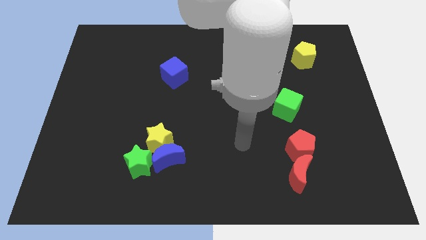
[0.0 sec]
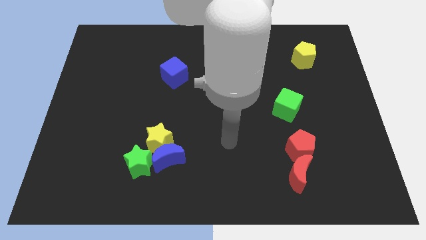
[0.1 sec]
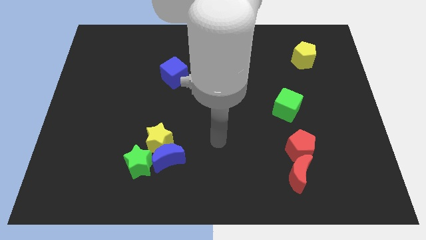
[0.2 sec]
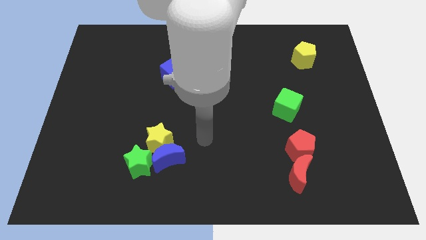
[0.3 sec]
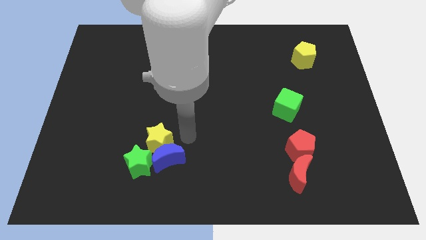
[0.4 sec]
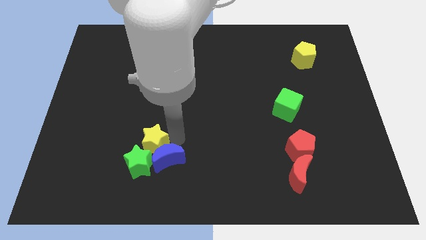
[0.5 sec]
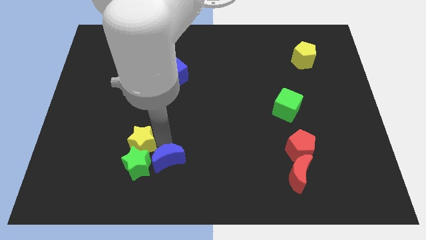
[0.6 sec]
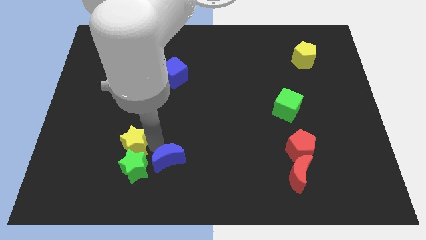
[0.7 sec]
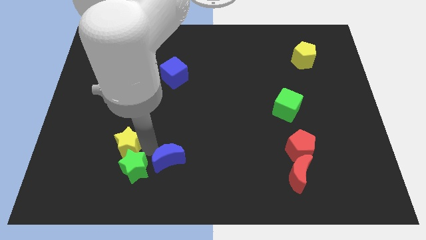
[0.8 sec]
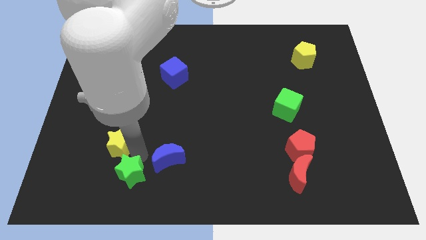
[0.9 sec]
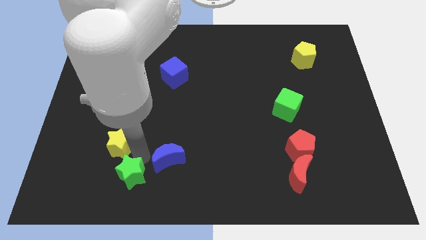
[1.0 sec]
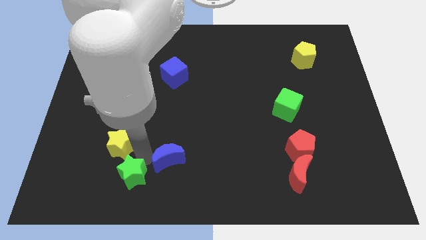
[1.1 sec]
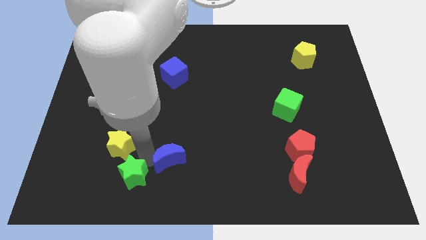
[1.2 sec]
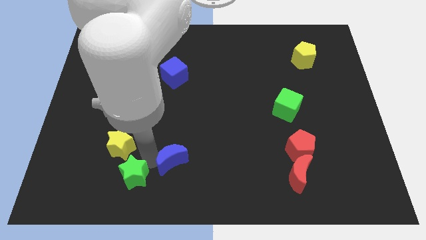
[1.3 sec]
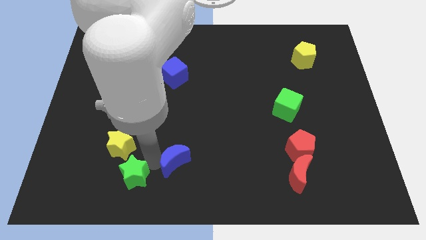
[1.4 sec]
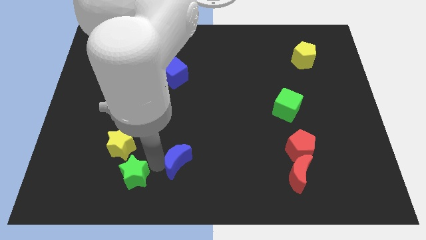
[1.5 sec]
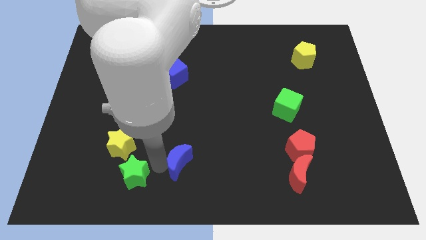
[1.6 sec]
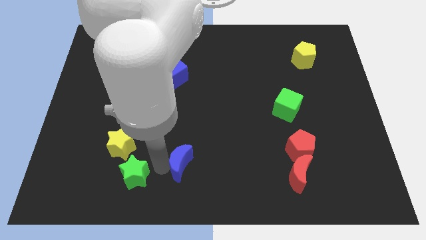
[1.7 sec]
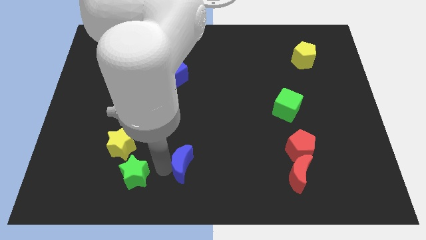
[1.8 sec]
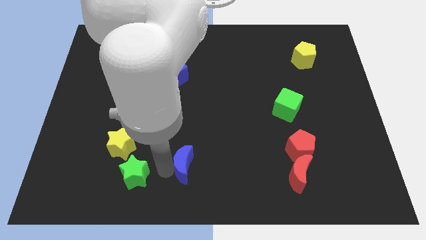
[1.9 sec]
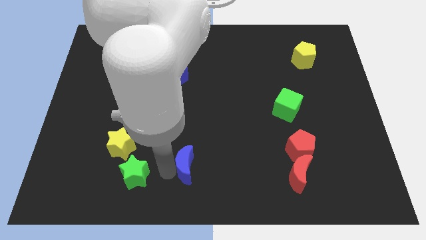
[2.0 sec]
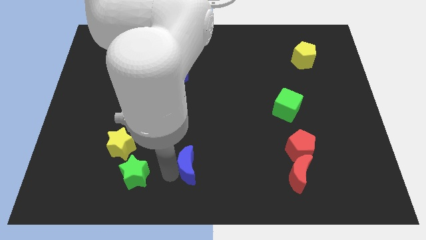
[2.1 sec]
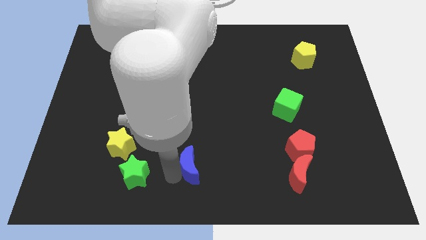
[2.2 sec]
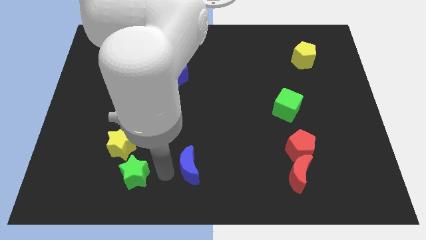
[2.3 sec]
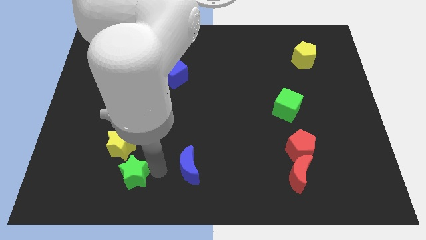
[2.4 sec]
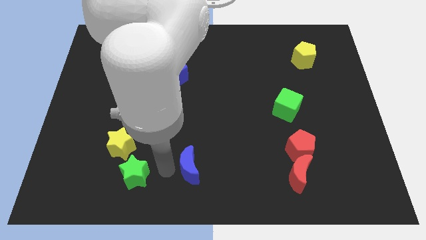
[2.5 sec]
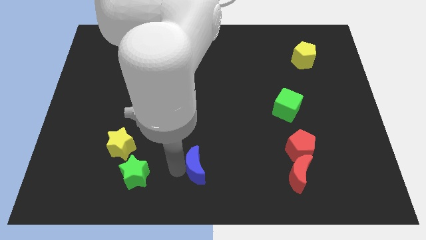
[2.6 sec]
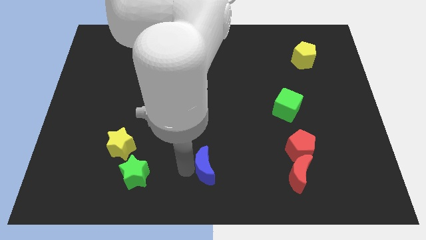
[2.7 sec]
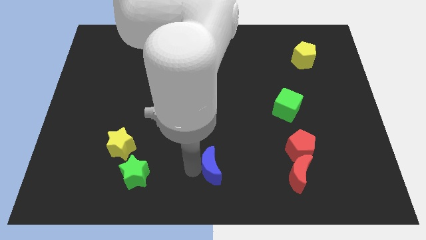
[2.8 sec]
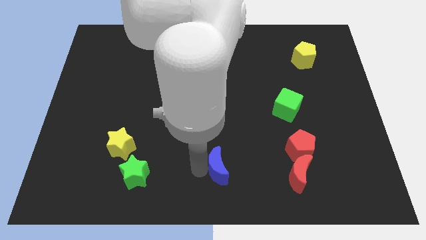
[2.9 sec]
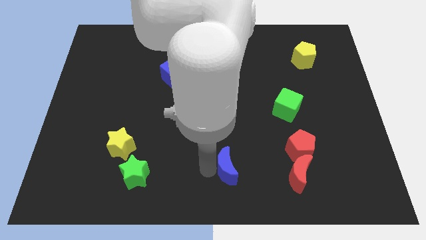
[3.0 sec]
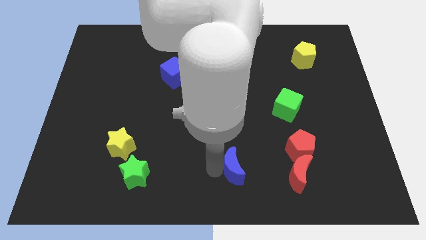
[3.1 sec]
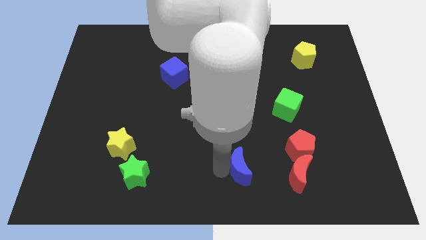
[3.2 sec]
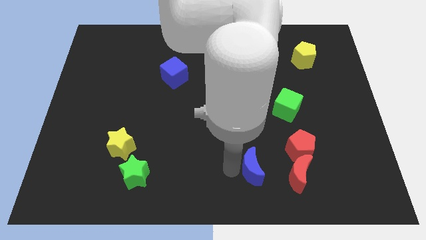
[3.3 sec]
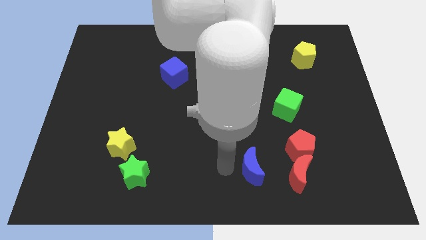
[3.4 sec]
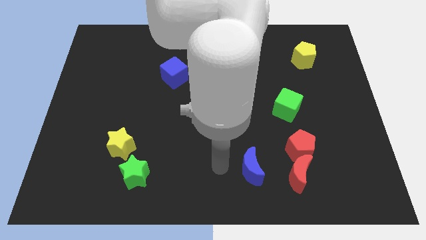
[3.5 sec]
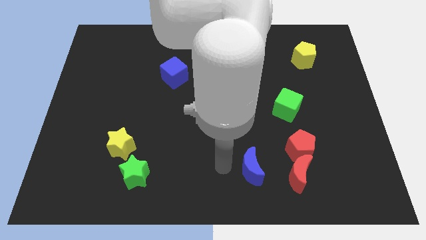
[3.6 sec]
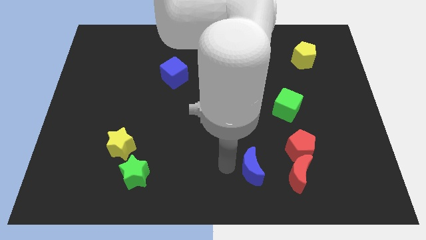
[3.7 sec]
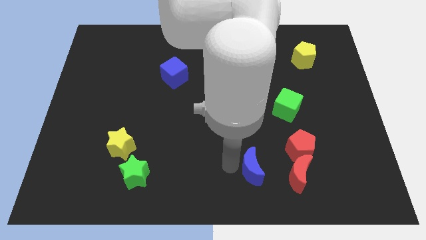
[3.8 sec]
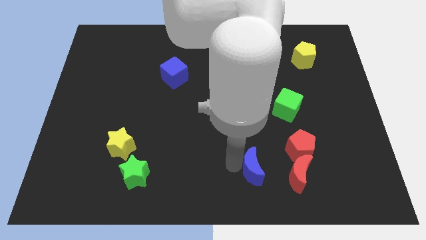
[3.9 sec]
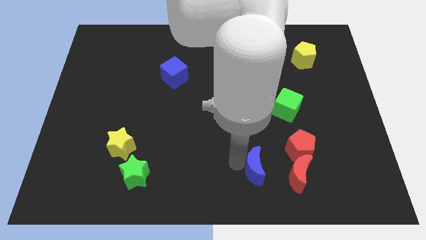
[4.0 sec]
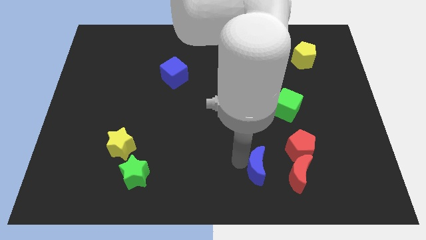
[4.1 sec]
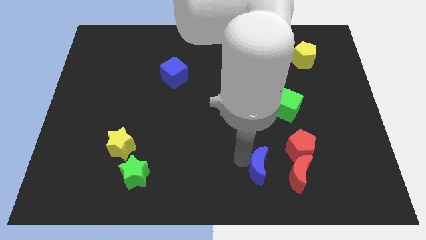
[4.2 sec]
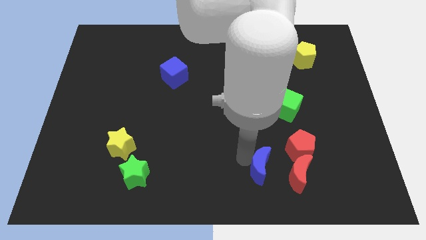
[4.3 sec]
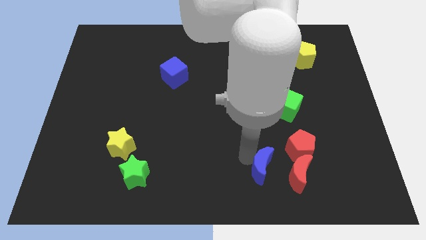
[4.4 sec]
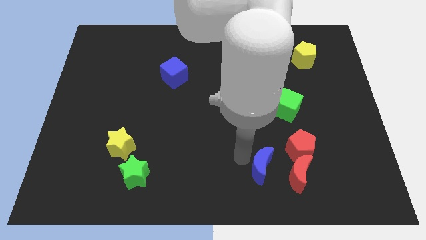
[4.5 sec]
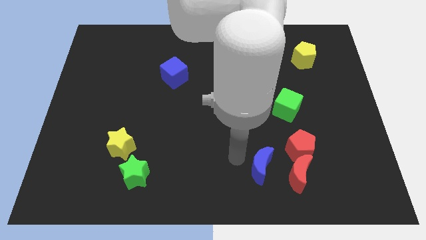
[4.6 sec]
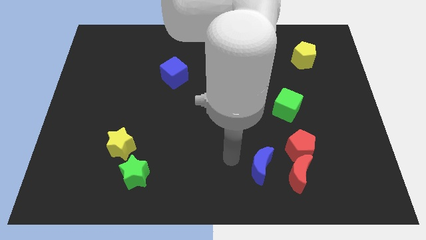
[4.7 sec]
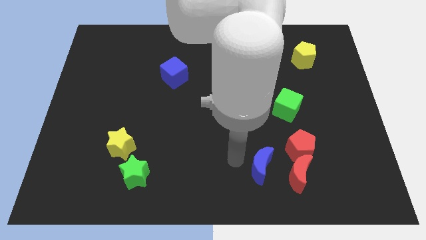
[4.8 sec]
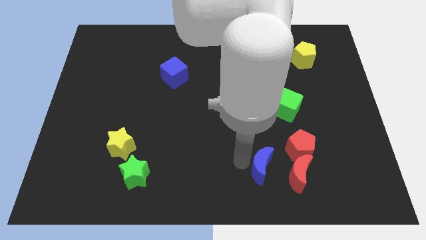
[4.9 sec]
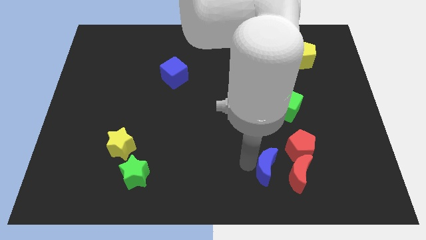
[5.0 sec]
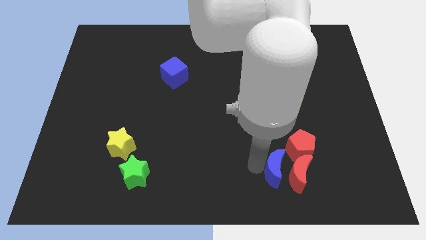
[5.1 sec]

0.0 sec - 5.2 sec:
move the blue moon towards the red moon

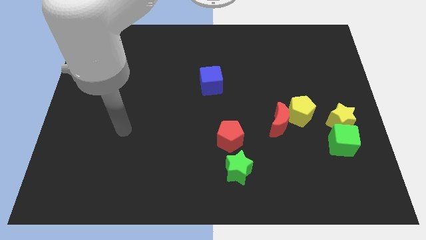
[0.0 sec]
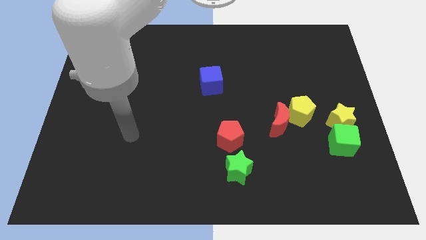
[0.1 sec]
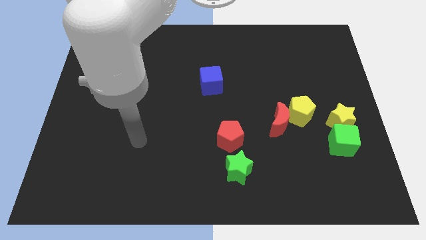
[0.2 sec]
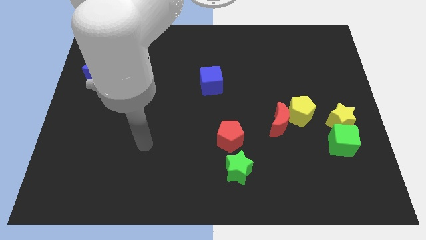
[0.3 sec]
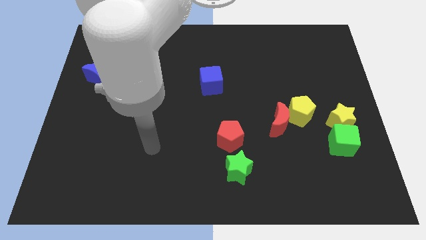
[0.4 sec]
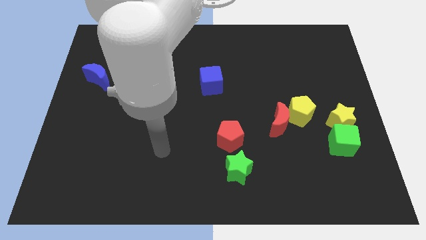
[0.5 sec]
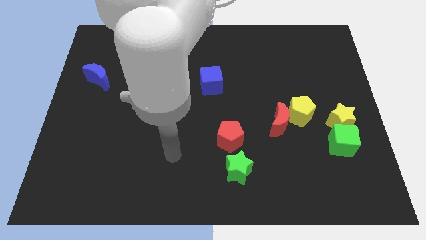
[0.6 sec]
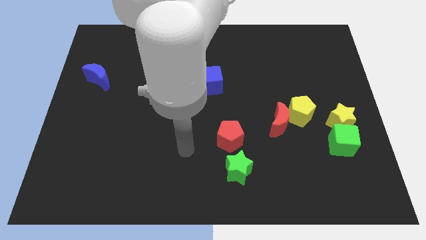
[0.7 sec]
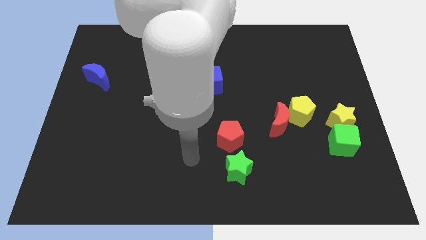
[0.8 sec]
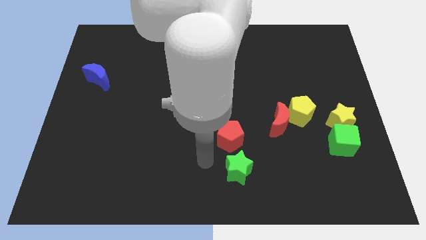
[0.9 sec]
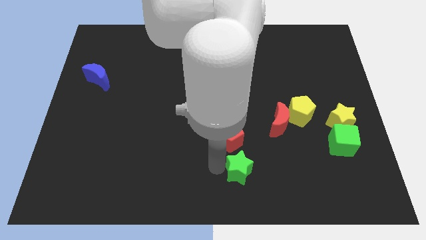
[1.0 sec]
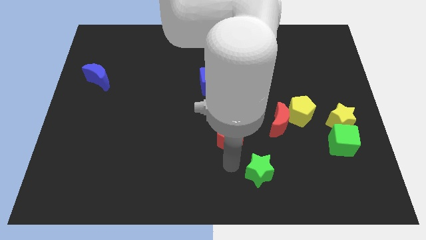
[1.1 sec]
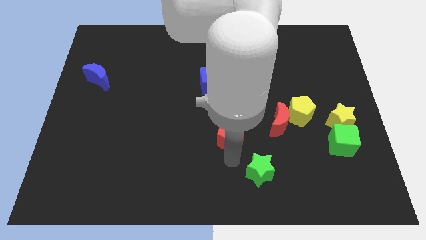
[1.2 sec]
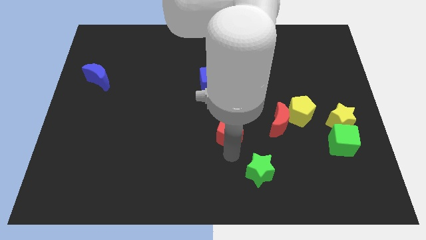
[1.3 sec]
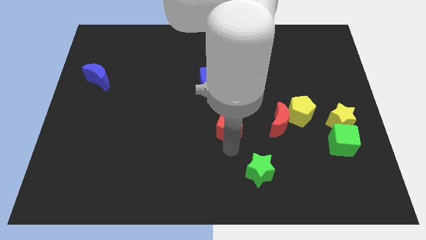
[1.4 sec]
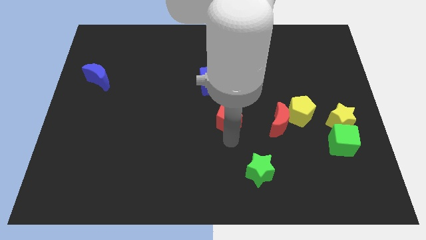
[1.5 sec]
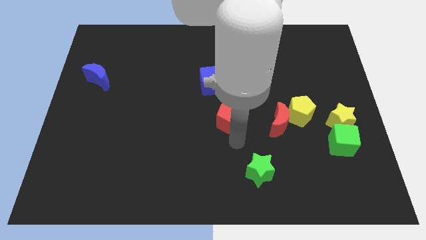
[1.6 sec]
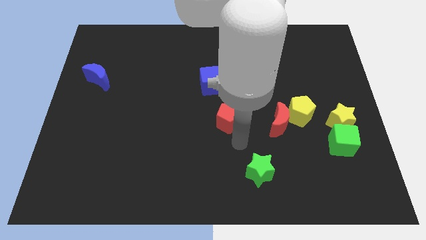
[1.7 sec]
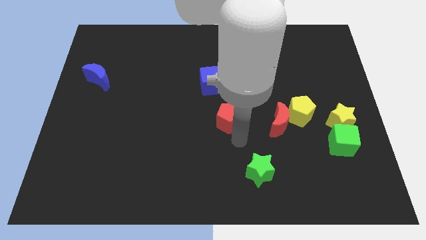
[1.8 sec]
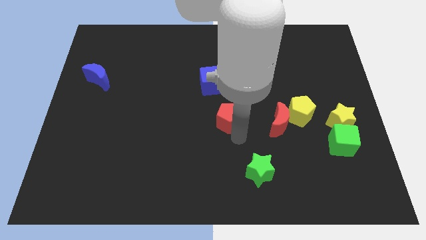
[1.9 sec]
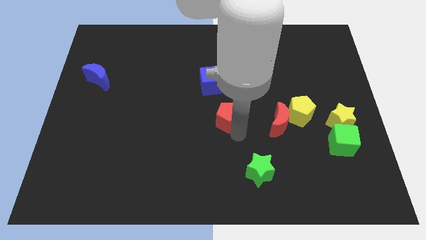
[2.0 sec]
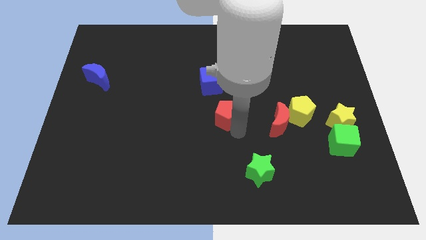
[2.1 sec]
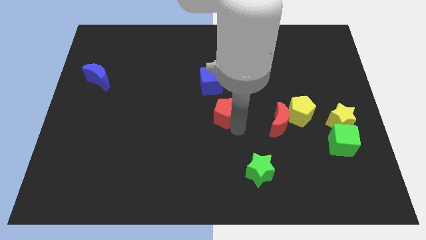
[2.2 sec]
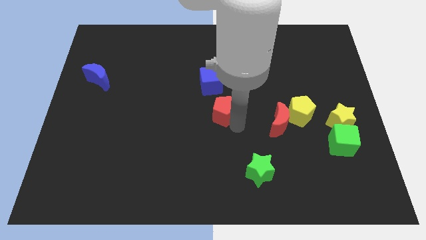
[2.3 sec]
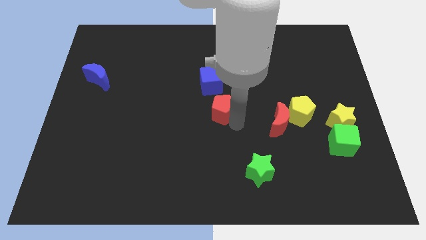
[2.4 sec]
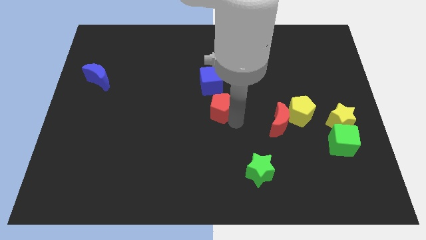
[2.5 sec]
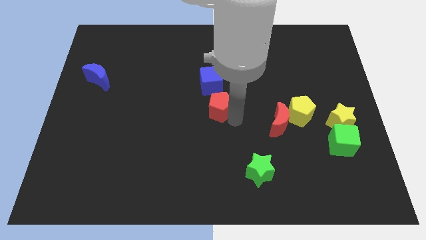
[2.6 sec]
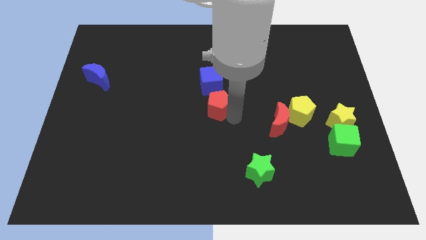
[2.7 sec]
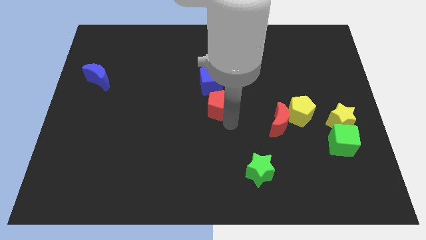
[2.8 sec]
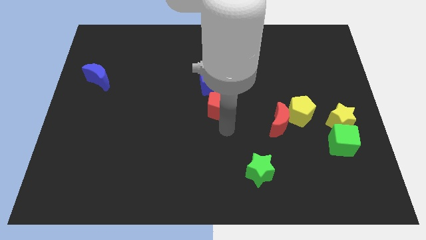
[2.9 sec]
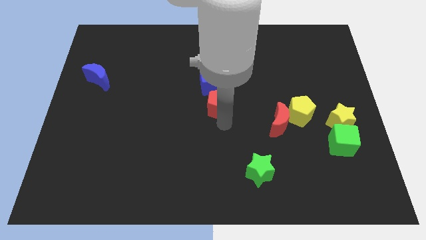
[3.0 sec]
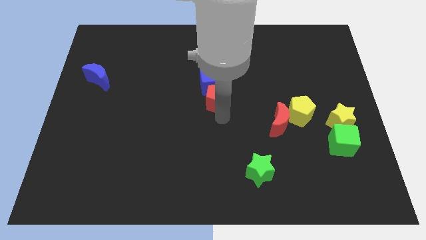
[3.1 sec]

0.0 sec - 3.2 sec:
slide the red pentagon towards the blue cube
